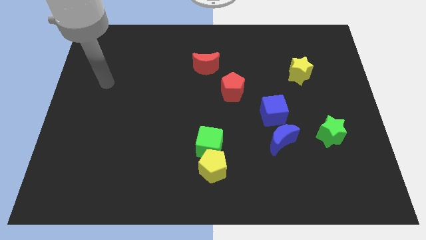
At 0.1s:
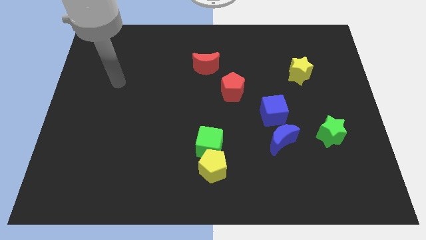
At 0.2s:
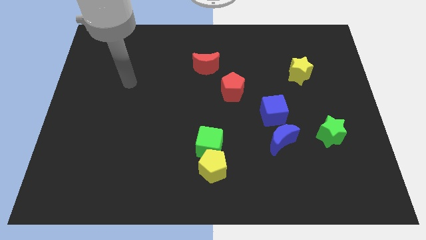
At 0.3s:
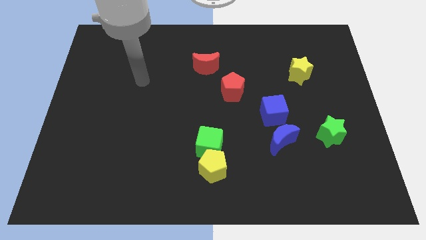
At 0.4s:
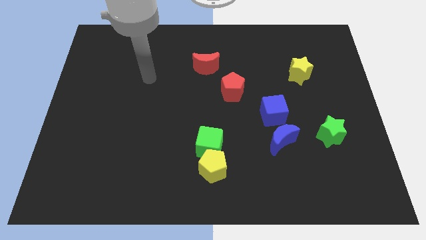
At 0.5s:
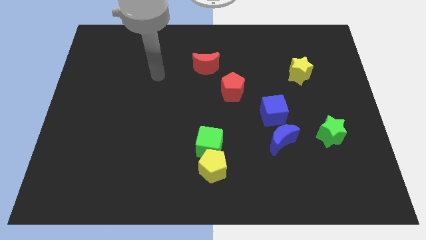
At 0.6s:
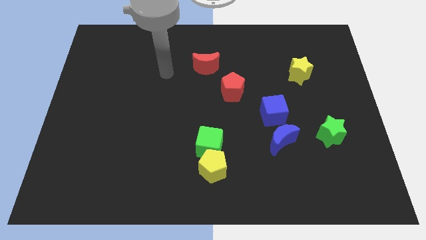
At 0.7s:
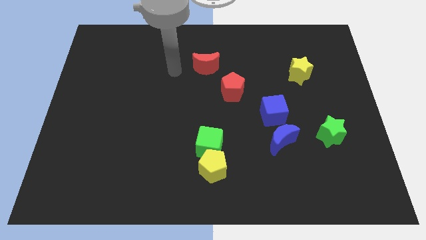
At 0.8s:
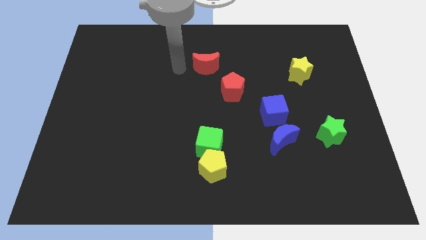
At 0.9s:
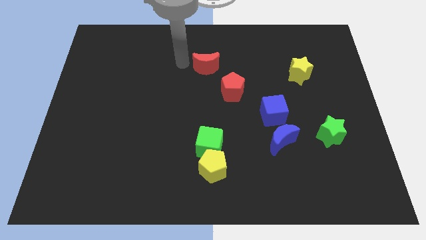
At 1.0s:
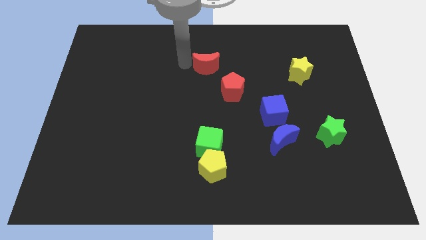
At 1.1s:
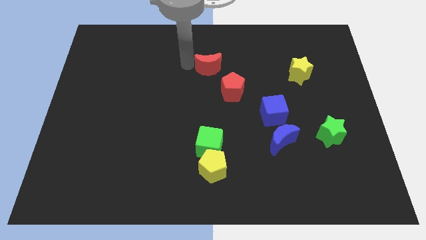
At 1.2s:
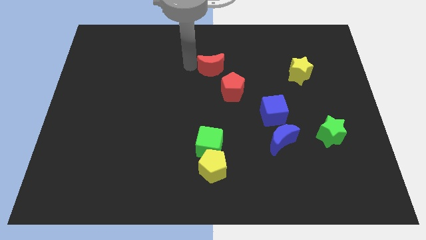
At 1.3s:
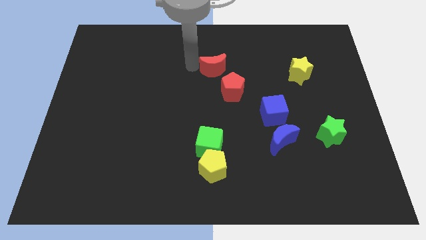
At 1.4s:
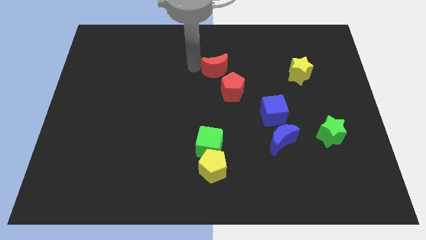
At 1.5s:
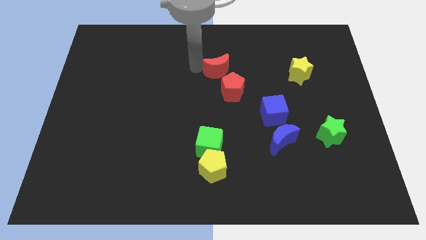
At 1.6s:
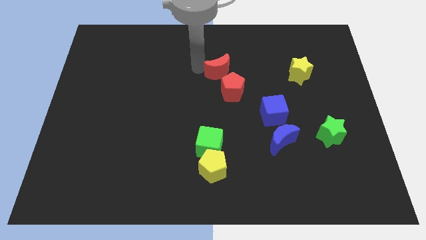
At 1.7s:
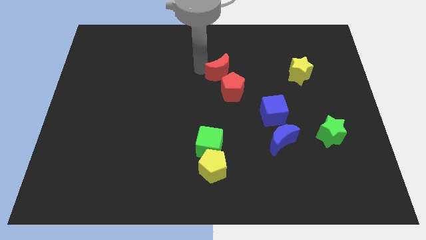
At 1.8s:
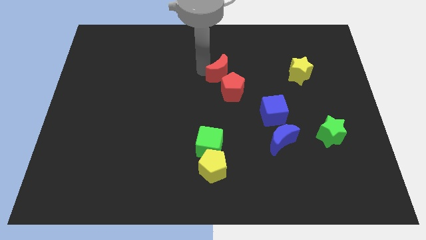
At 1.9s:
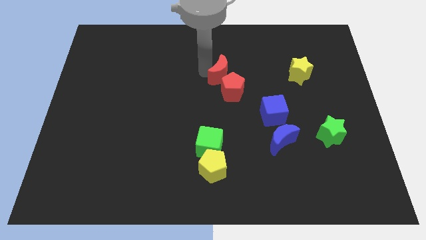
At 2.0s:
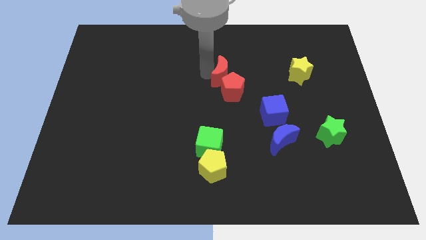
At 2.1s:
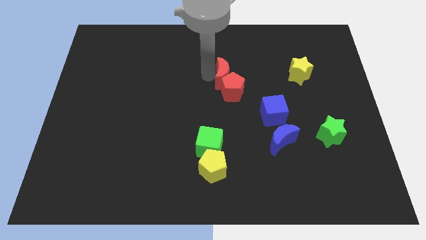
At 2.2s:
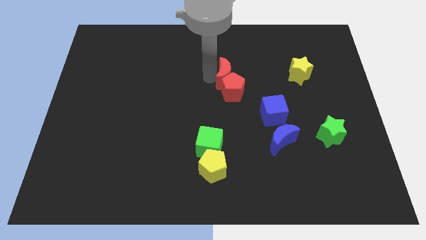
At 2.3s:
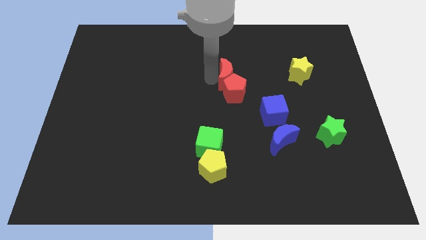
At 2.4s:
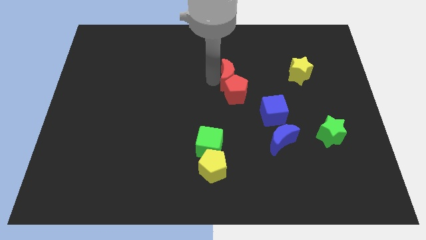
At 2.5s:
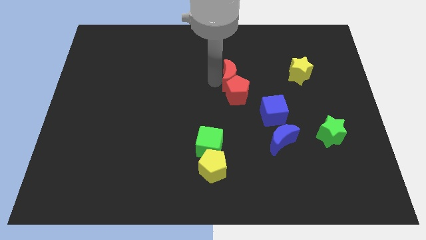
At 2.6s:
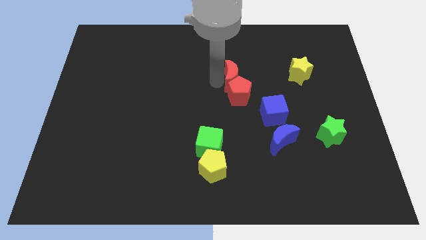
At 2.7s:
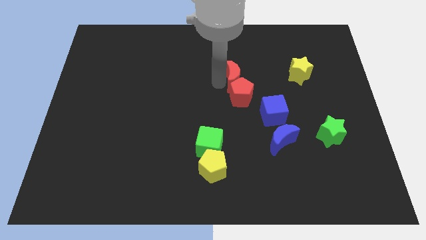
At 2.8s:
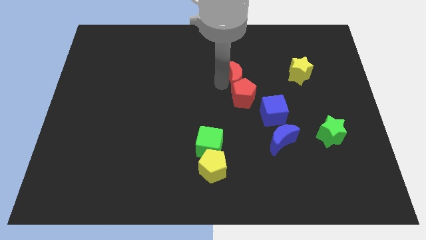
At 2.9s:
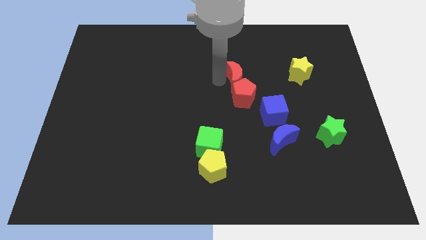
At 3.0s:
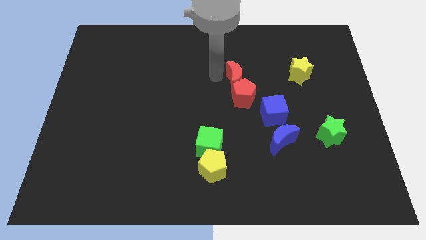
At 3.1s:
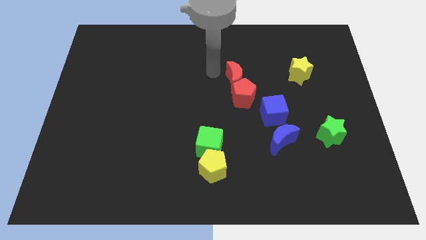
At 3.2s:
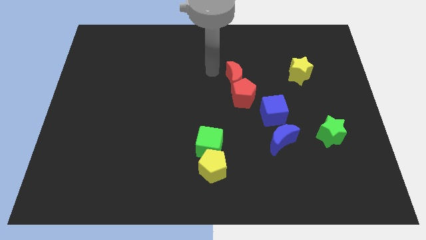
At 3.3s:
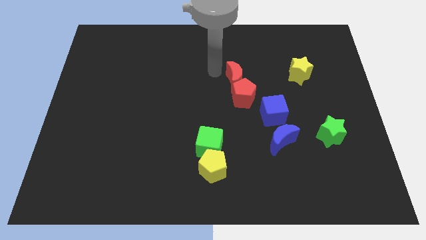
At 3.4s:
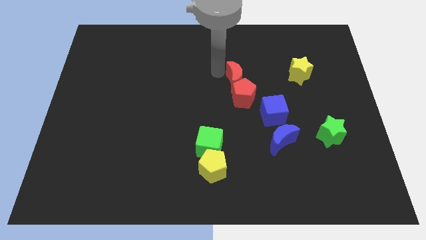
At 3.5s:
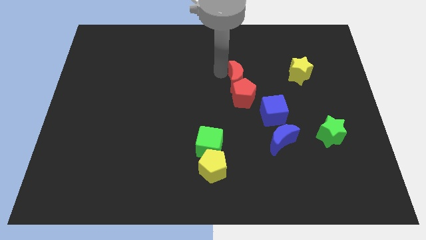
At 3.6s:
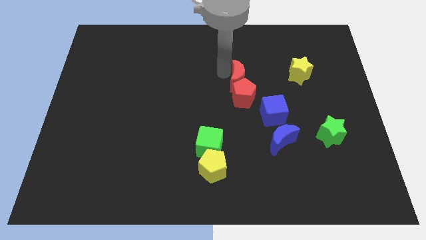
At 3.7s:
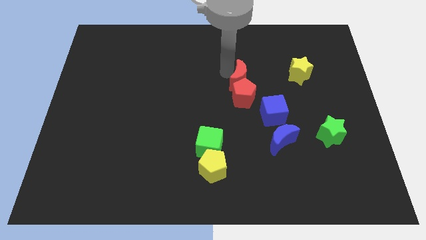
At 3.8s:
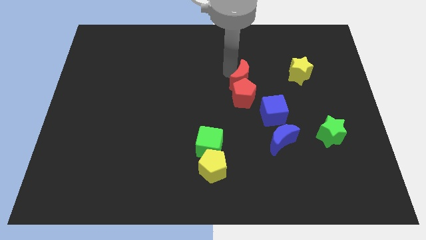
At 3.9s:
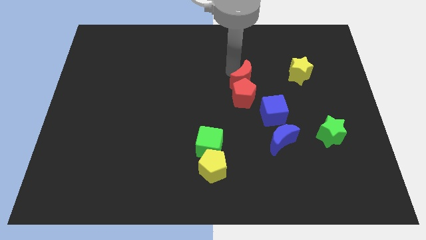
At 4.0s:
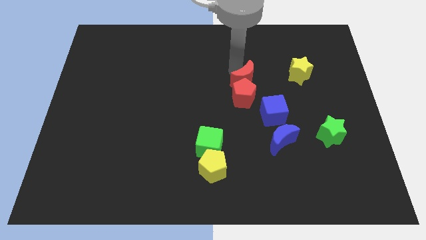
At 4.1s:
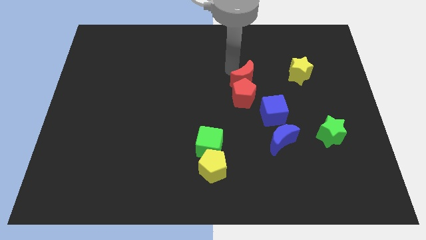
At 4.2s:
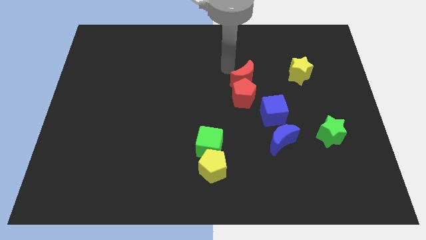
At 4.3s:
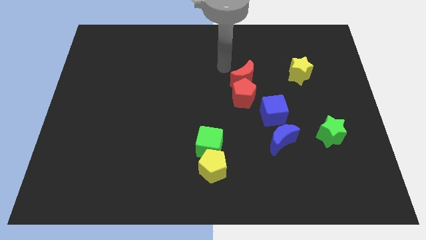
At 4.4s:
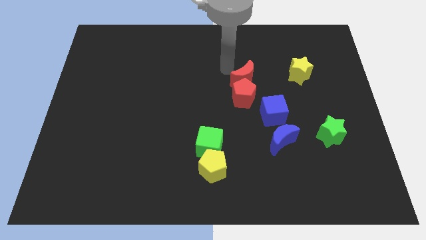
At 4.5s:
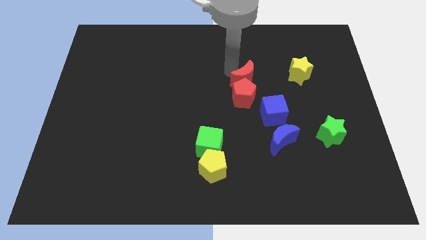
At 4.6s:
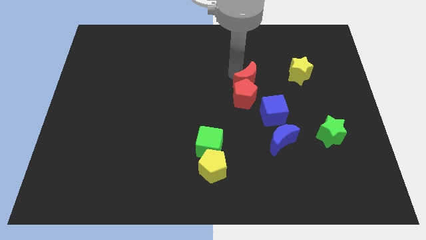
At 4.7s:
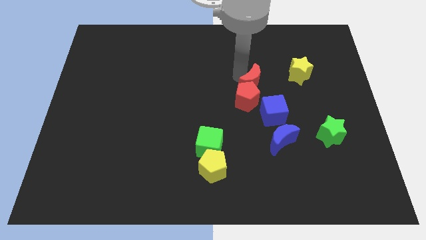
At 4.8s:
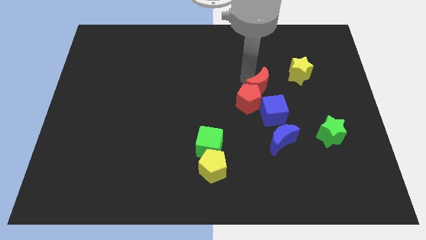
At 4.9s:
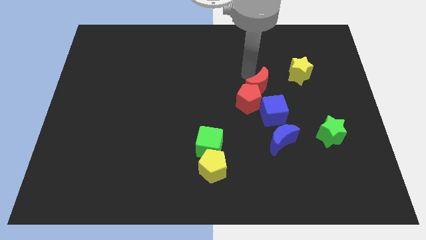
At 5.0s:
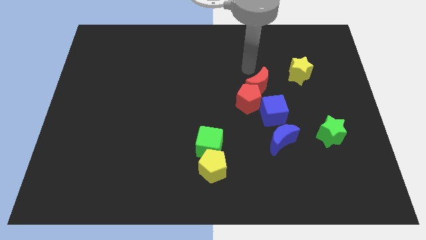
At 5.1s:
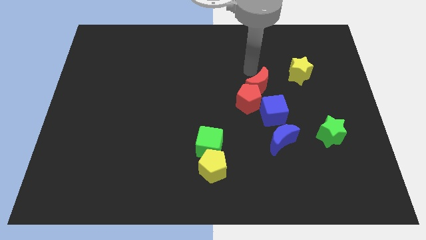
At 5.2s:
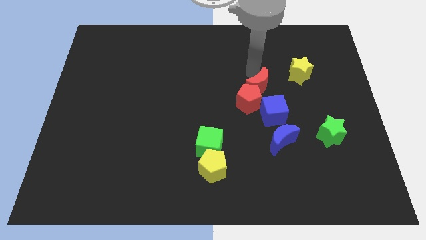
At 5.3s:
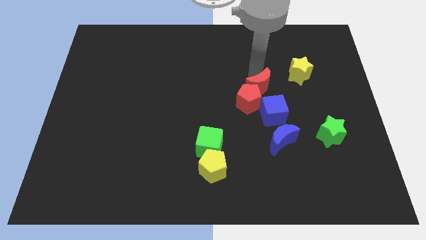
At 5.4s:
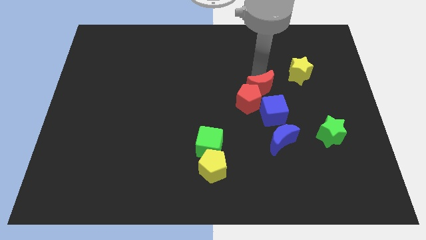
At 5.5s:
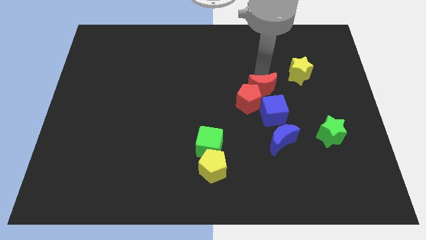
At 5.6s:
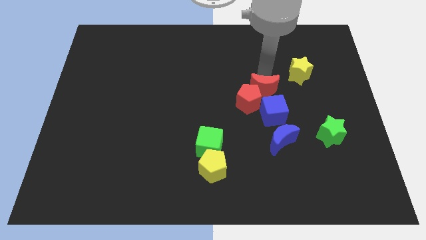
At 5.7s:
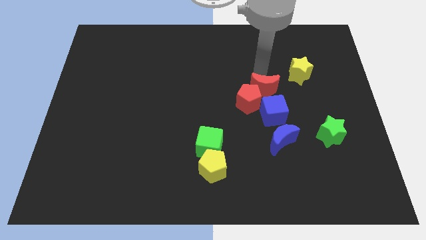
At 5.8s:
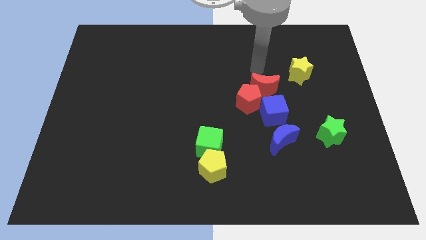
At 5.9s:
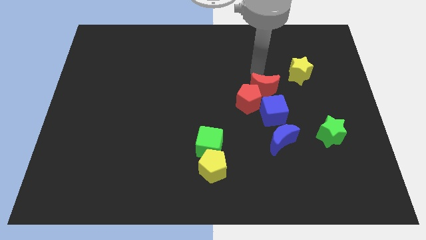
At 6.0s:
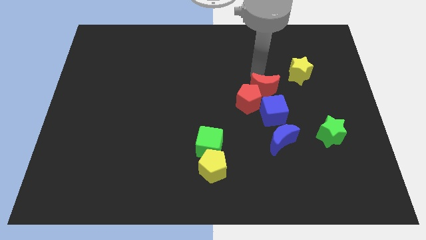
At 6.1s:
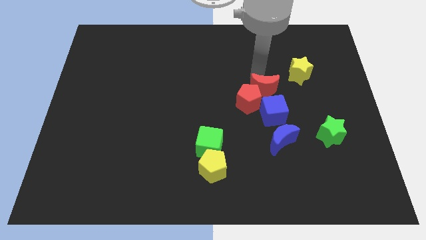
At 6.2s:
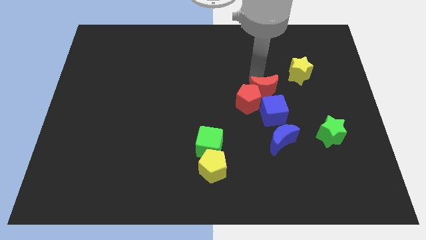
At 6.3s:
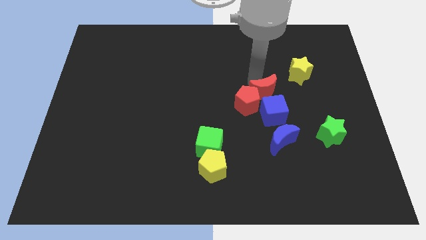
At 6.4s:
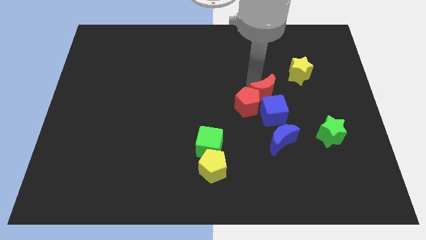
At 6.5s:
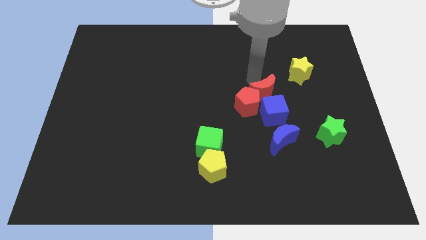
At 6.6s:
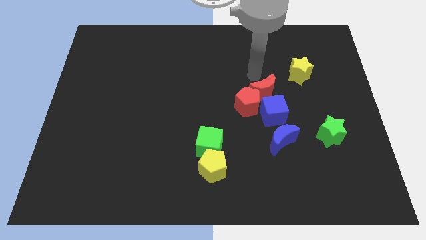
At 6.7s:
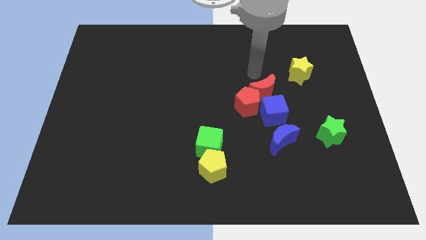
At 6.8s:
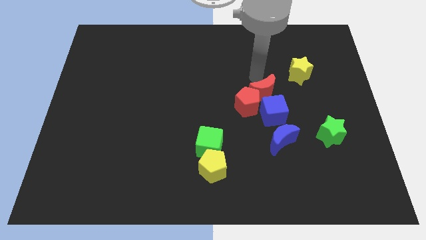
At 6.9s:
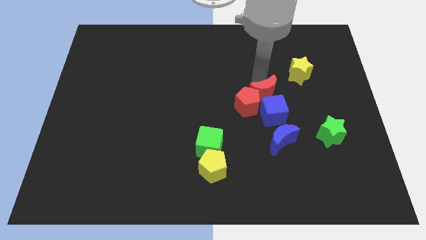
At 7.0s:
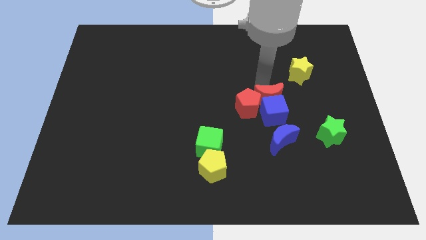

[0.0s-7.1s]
slide the red moon towards the blue cube
